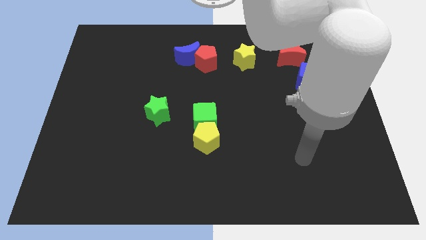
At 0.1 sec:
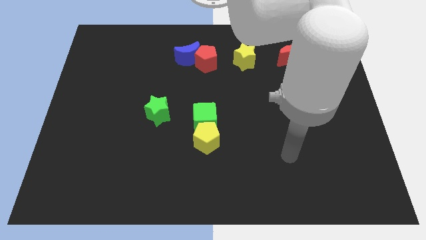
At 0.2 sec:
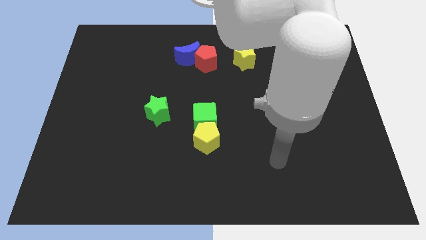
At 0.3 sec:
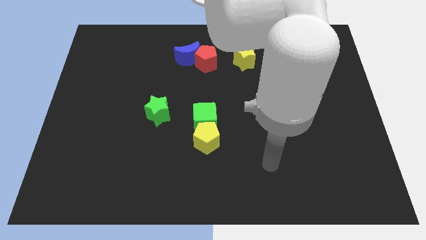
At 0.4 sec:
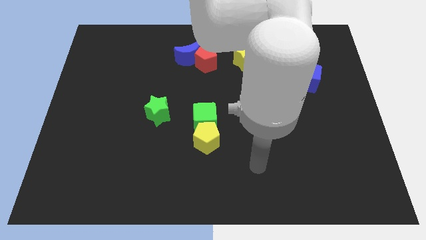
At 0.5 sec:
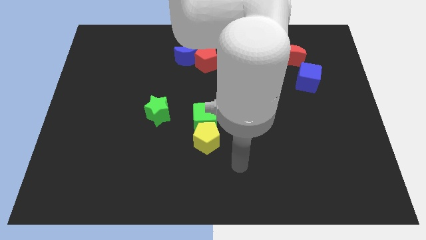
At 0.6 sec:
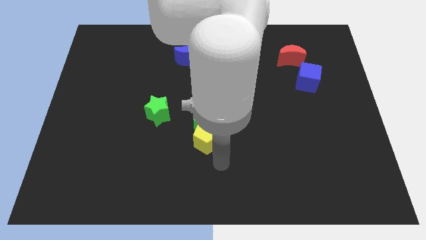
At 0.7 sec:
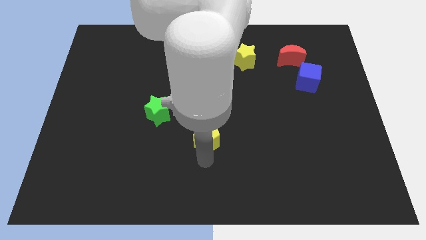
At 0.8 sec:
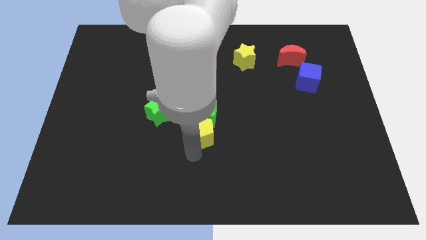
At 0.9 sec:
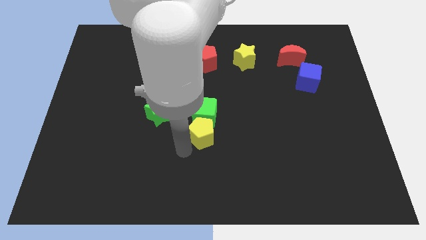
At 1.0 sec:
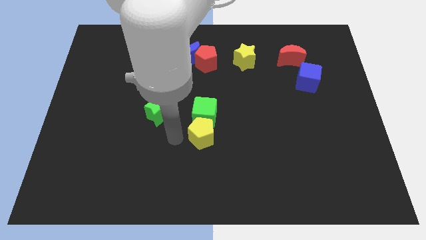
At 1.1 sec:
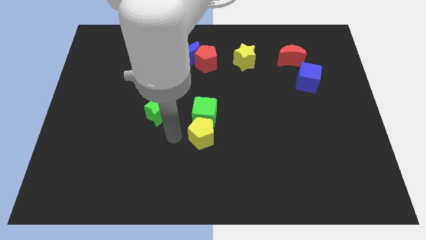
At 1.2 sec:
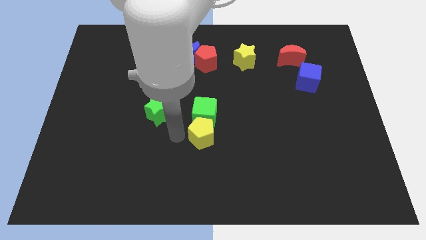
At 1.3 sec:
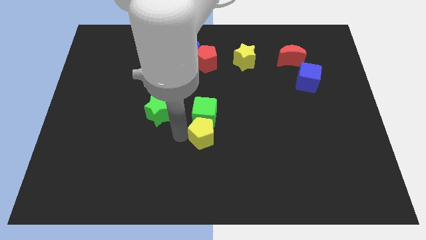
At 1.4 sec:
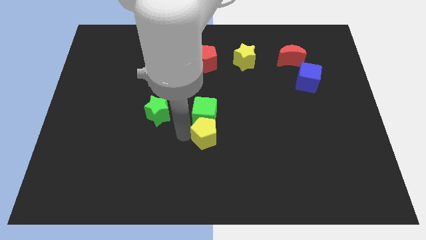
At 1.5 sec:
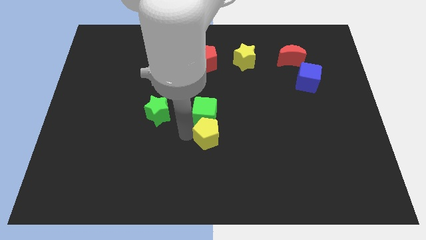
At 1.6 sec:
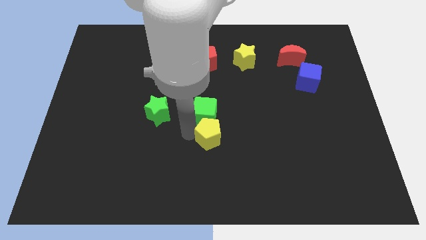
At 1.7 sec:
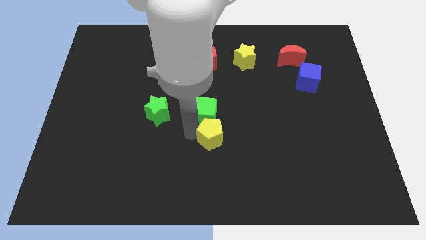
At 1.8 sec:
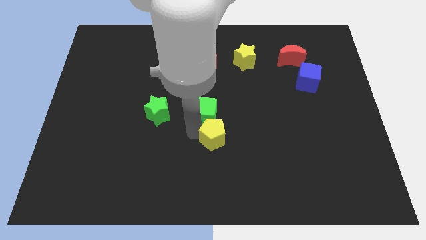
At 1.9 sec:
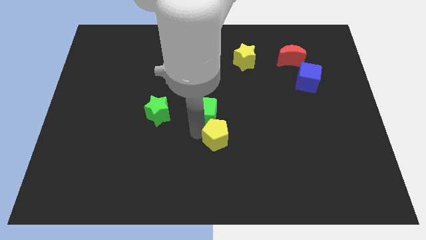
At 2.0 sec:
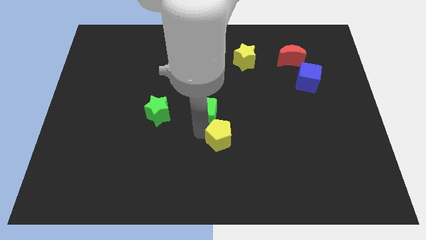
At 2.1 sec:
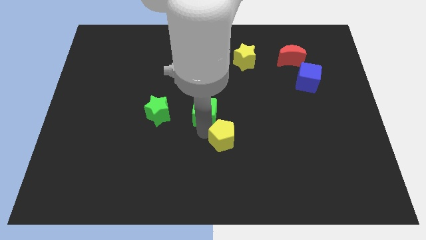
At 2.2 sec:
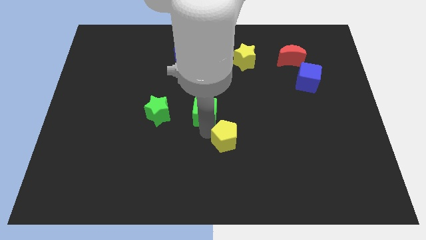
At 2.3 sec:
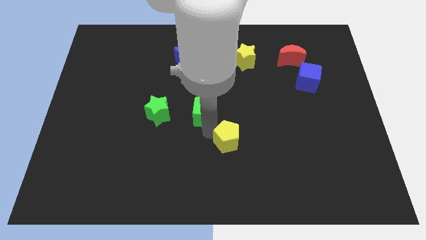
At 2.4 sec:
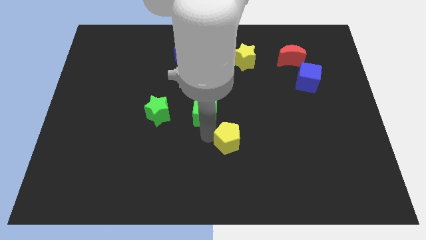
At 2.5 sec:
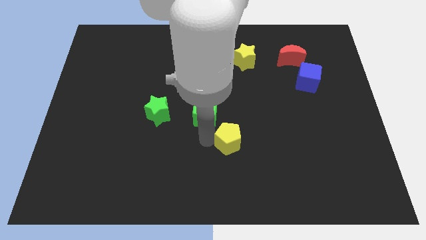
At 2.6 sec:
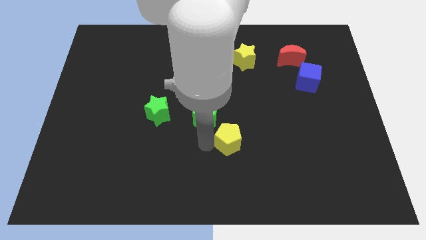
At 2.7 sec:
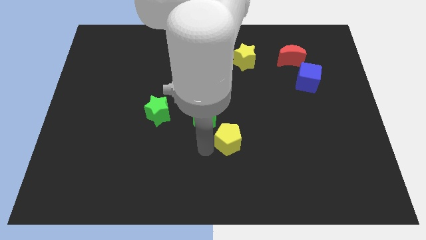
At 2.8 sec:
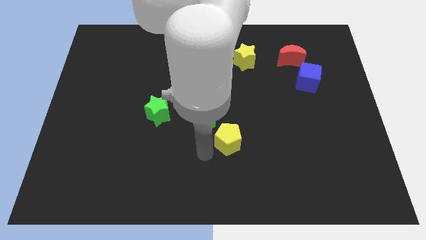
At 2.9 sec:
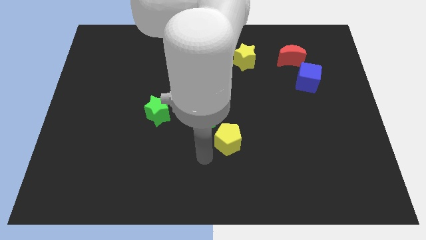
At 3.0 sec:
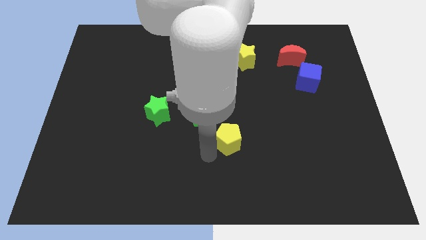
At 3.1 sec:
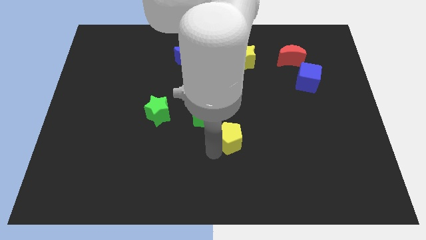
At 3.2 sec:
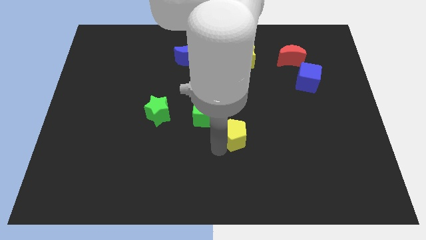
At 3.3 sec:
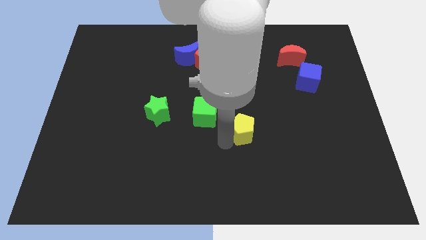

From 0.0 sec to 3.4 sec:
push the yellow pentagon to the right a little

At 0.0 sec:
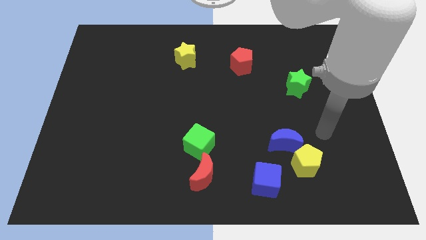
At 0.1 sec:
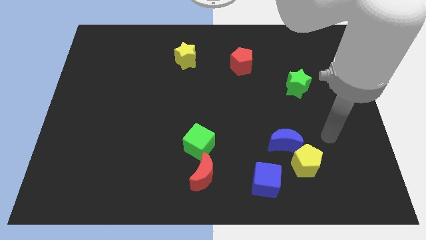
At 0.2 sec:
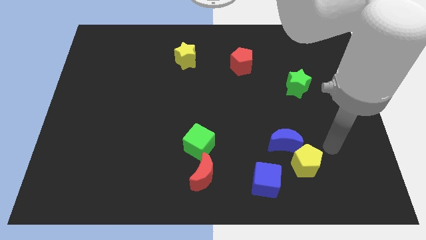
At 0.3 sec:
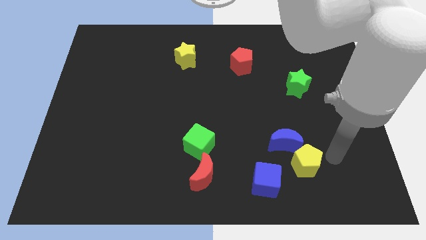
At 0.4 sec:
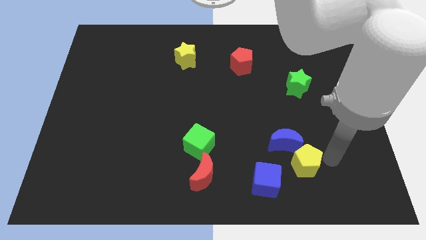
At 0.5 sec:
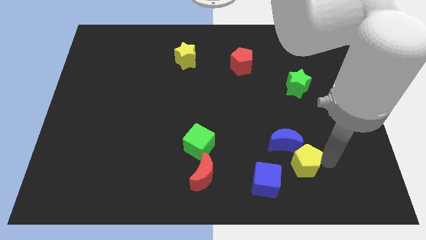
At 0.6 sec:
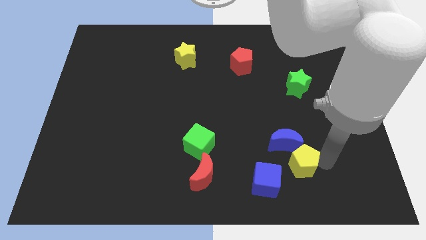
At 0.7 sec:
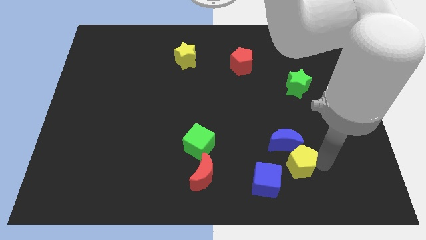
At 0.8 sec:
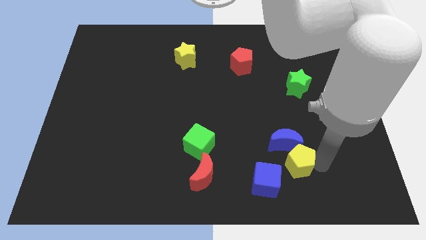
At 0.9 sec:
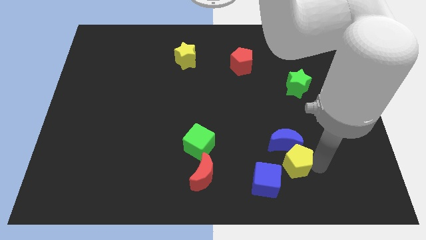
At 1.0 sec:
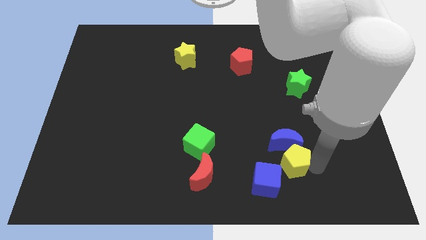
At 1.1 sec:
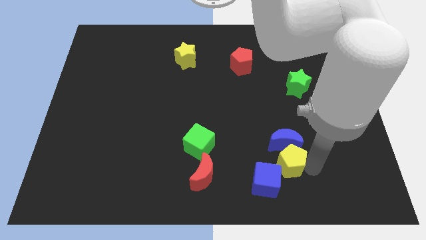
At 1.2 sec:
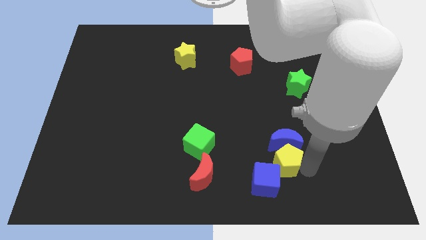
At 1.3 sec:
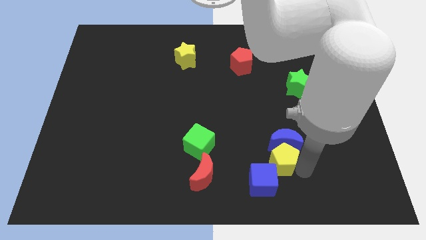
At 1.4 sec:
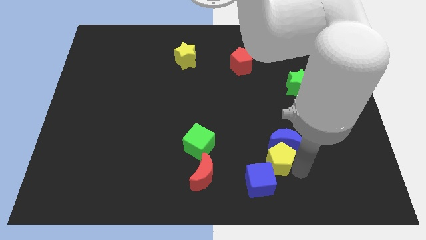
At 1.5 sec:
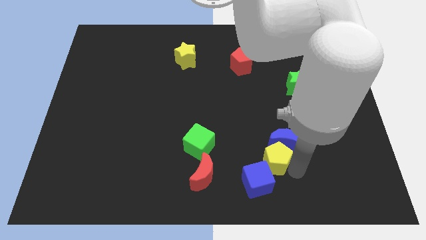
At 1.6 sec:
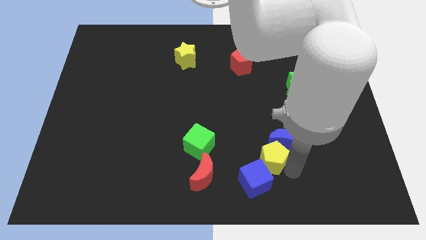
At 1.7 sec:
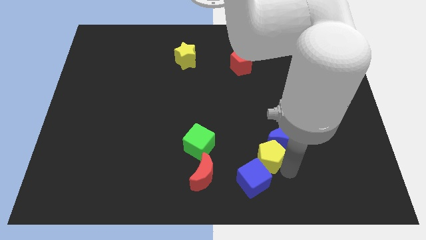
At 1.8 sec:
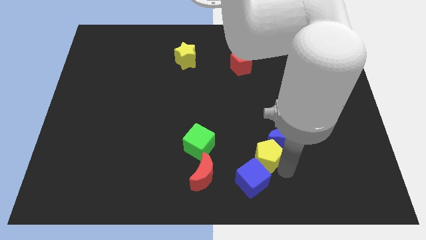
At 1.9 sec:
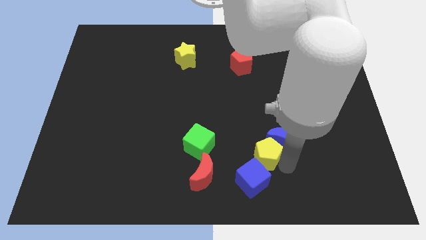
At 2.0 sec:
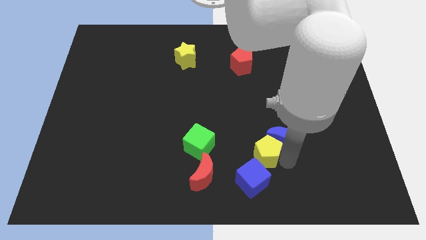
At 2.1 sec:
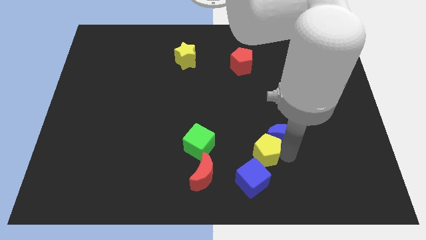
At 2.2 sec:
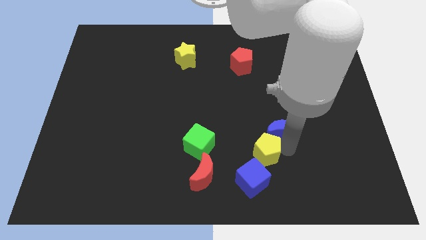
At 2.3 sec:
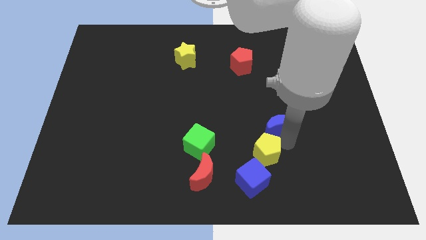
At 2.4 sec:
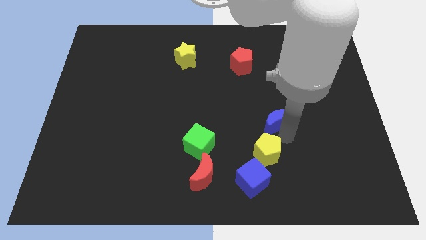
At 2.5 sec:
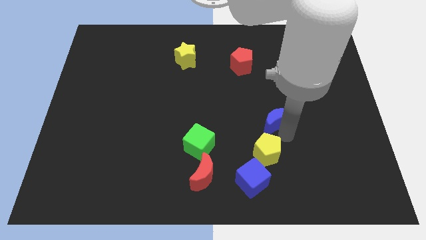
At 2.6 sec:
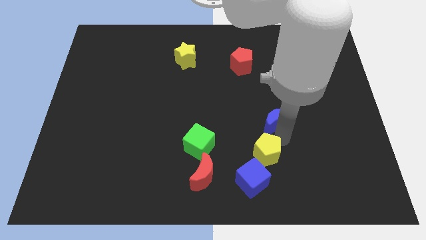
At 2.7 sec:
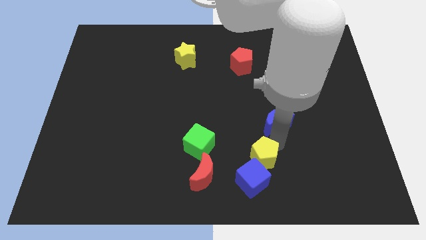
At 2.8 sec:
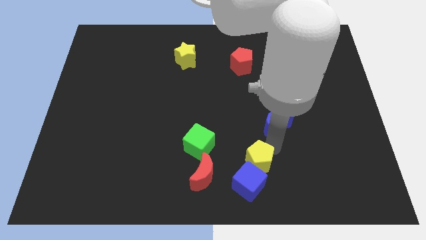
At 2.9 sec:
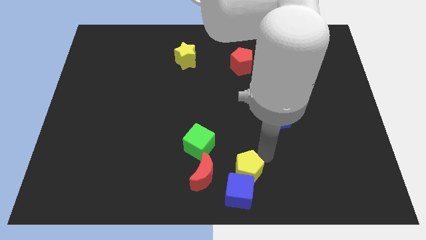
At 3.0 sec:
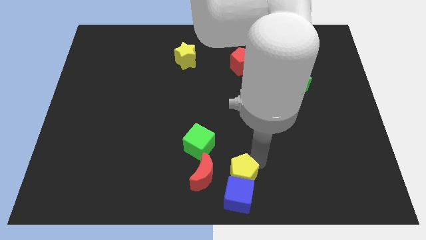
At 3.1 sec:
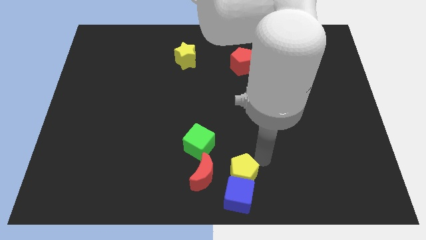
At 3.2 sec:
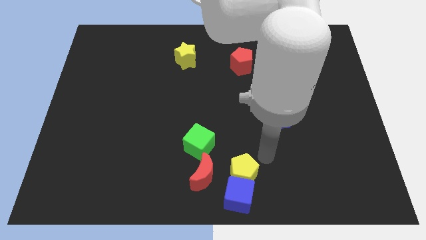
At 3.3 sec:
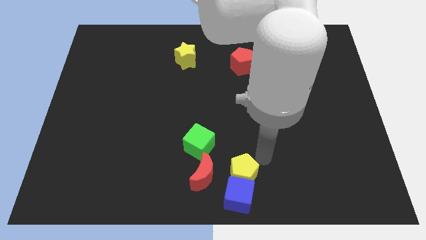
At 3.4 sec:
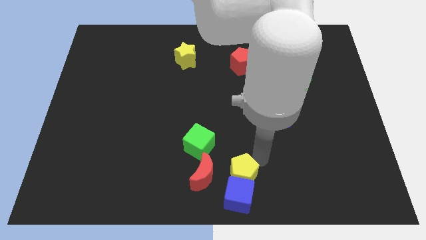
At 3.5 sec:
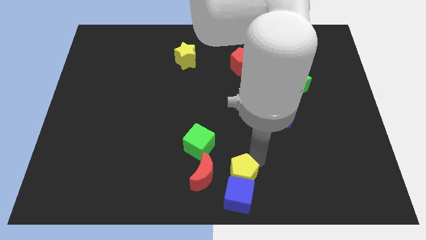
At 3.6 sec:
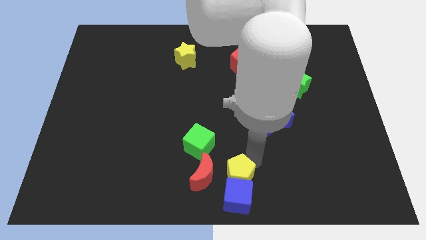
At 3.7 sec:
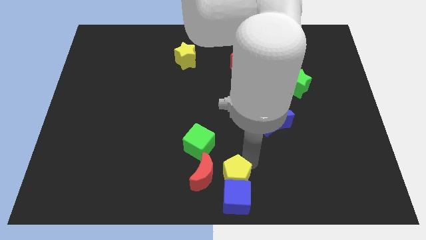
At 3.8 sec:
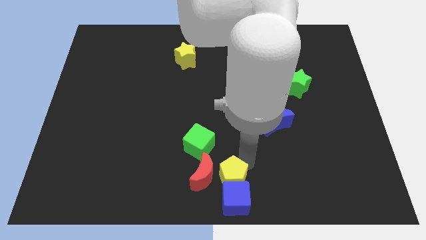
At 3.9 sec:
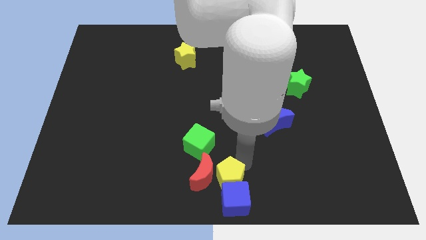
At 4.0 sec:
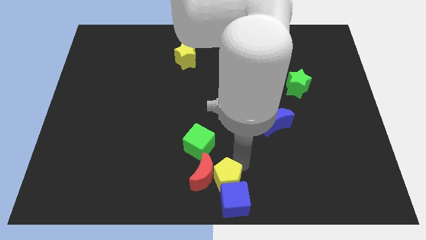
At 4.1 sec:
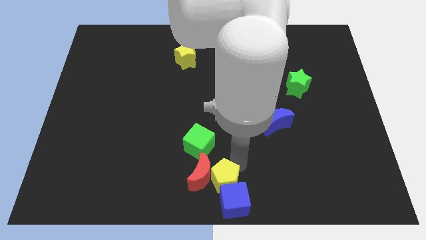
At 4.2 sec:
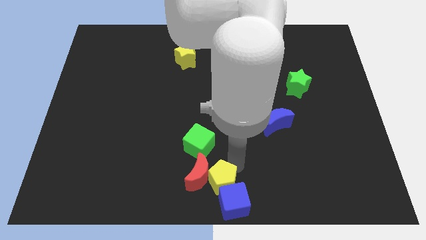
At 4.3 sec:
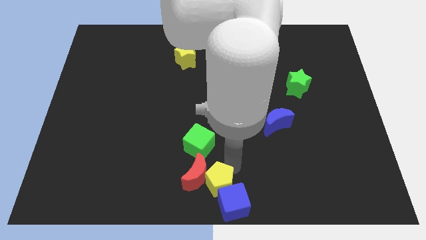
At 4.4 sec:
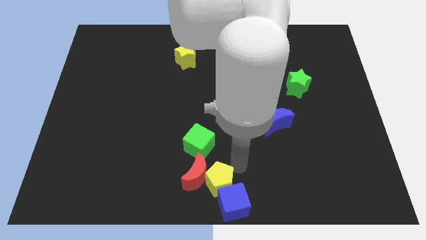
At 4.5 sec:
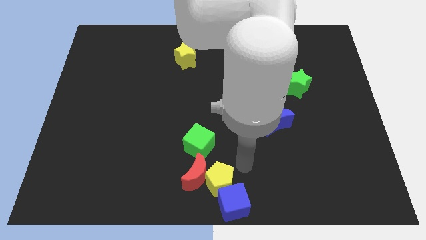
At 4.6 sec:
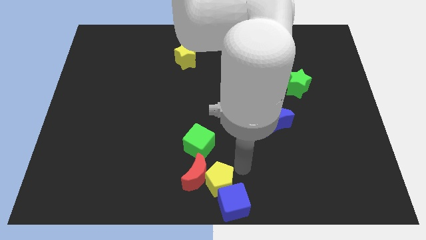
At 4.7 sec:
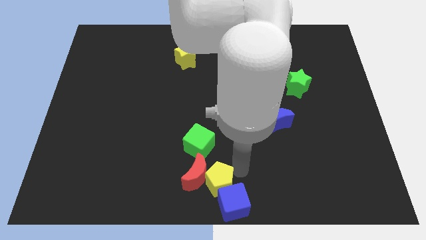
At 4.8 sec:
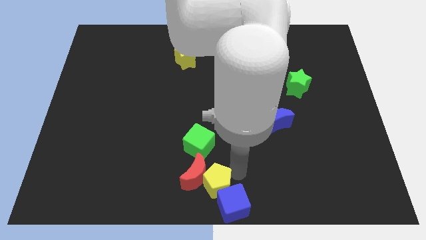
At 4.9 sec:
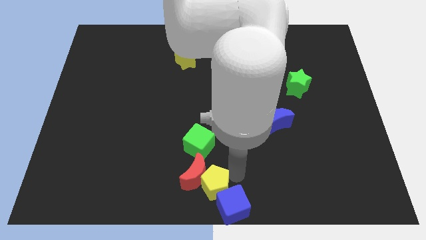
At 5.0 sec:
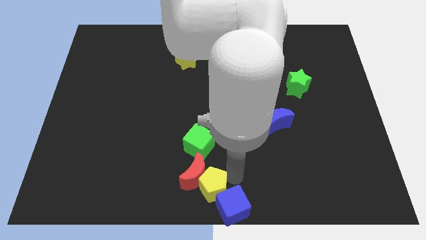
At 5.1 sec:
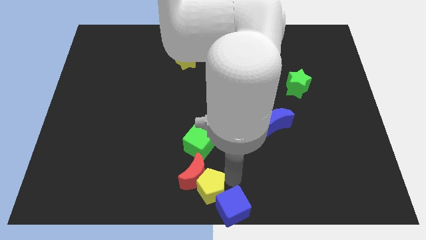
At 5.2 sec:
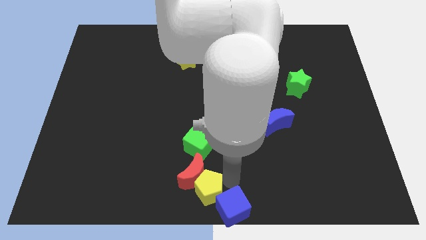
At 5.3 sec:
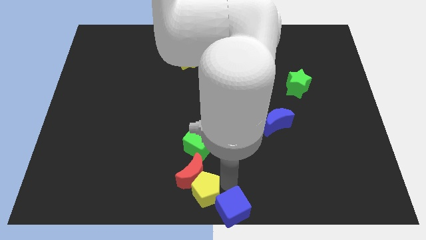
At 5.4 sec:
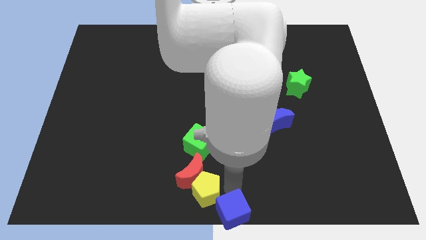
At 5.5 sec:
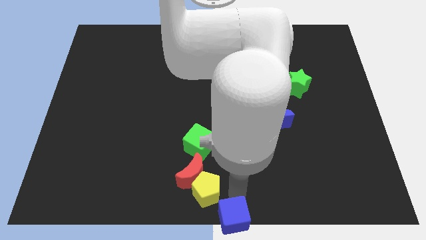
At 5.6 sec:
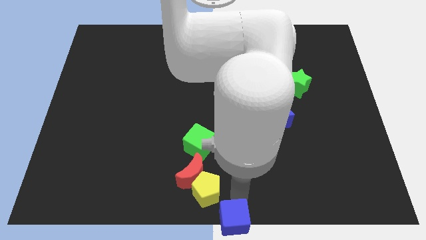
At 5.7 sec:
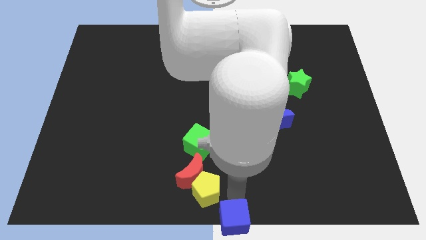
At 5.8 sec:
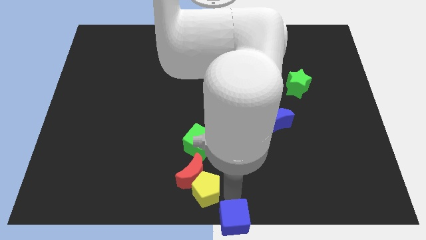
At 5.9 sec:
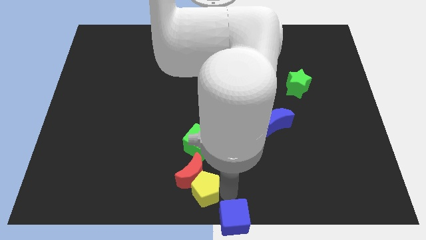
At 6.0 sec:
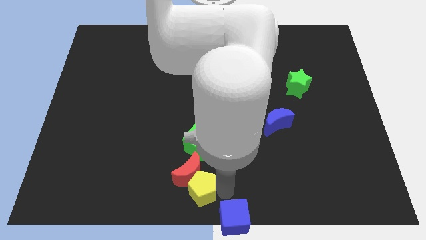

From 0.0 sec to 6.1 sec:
push the yellow pentagon left
